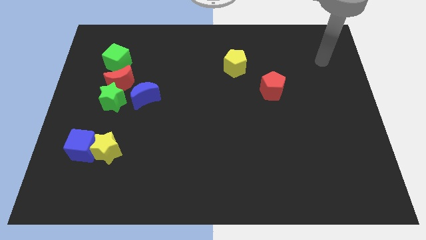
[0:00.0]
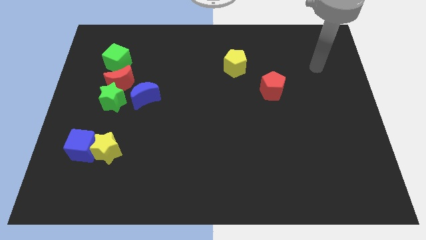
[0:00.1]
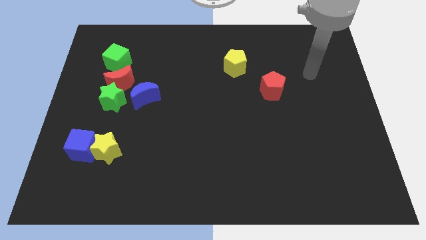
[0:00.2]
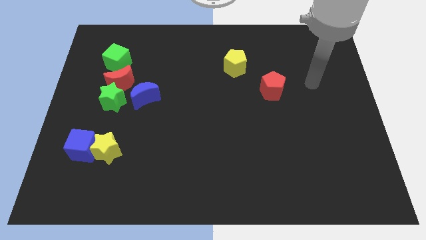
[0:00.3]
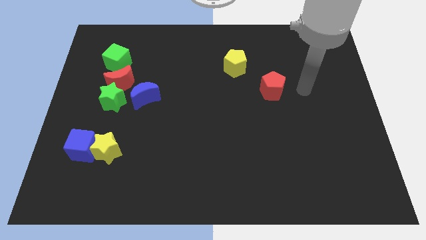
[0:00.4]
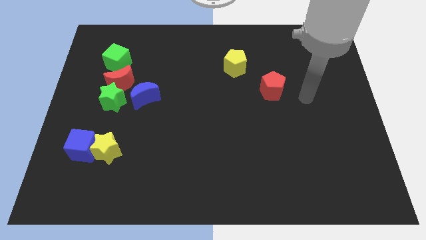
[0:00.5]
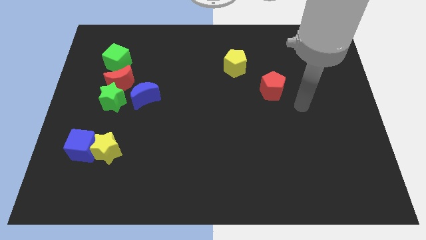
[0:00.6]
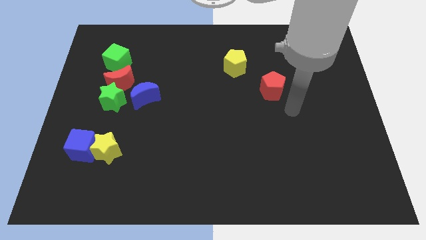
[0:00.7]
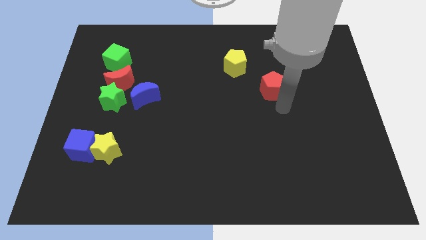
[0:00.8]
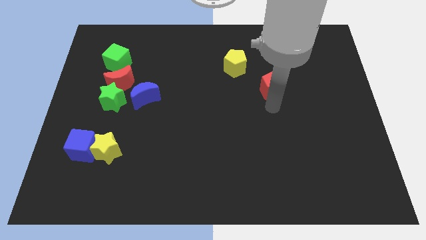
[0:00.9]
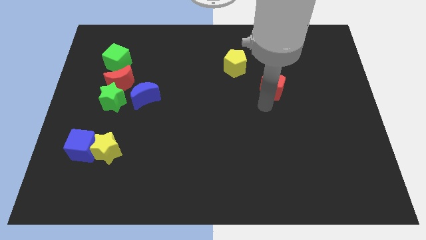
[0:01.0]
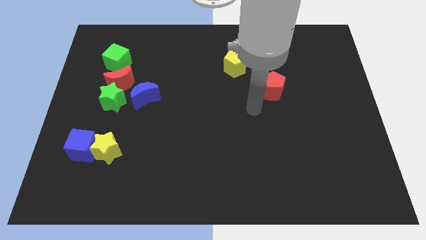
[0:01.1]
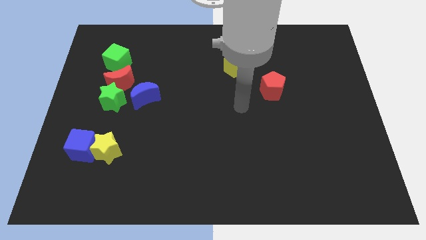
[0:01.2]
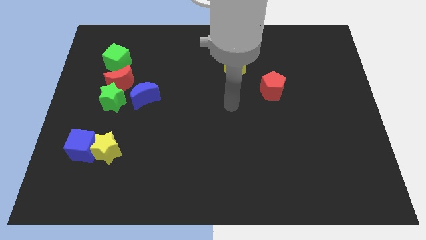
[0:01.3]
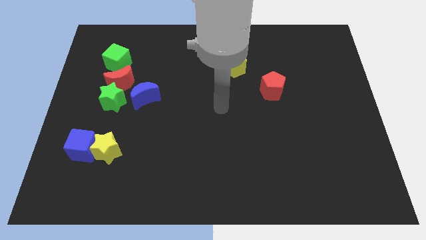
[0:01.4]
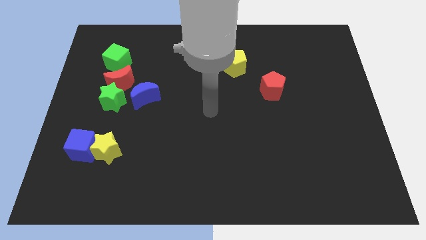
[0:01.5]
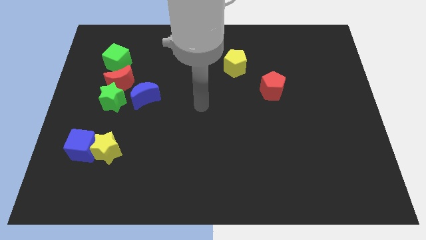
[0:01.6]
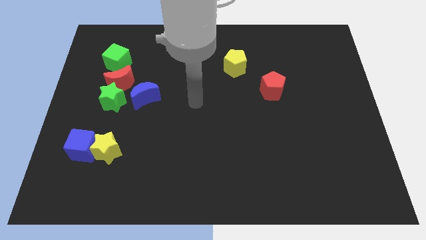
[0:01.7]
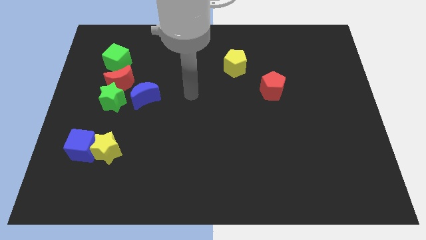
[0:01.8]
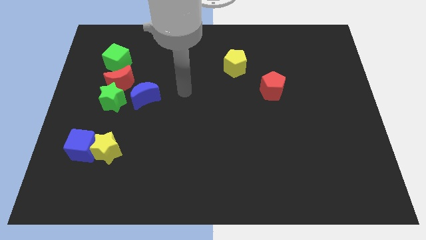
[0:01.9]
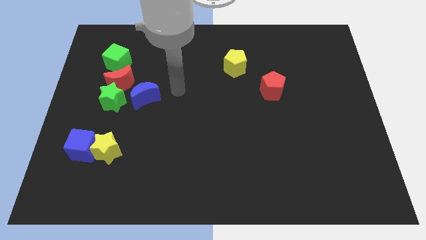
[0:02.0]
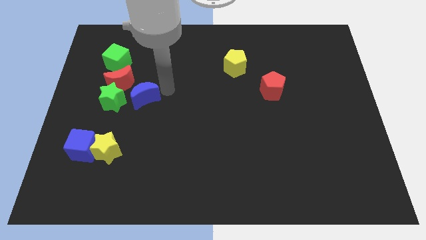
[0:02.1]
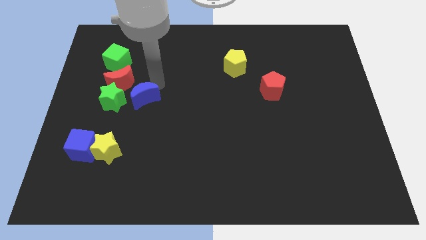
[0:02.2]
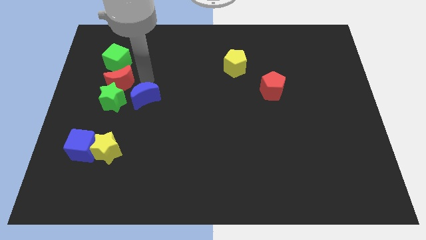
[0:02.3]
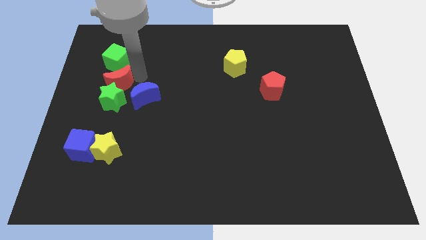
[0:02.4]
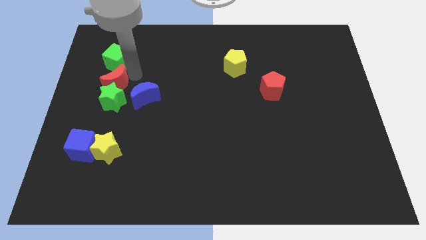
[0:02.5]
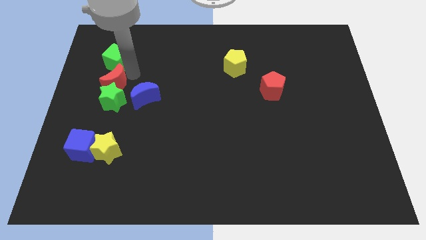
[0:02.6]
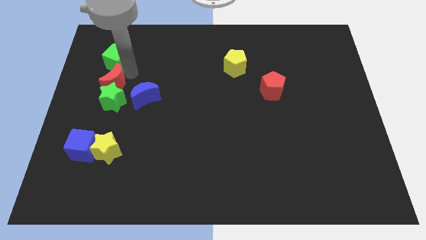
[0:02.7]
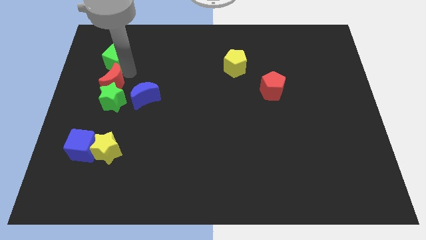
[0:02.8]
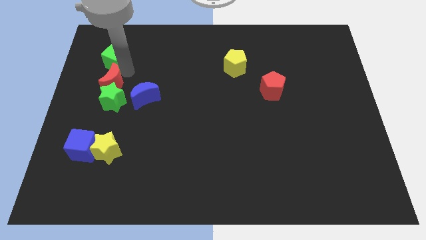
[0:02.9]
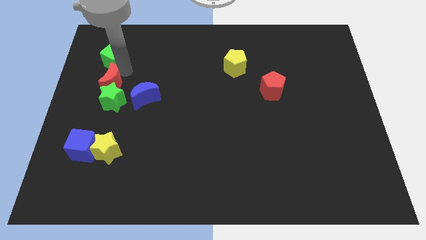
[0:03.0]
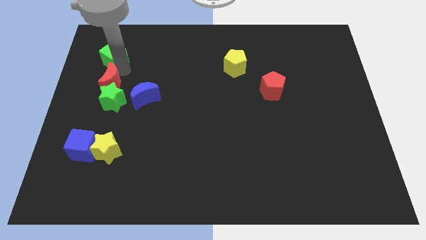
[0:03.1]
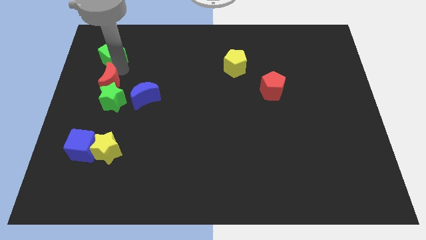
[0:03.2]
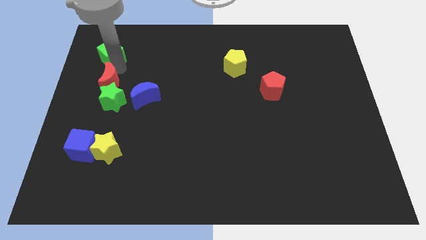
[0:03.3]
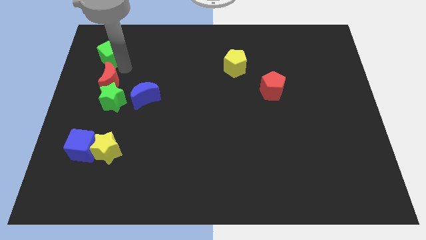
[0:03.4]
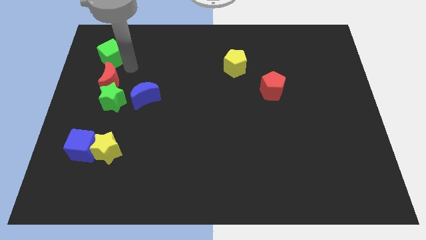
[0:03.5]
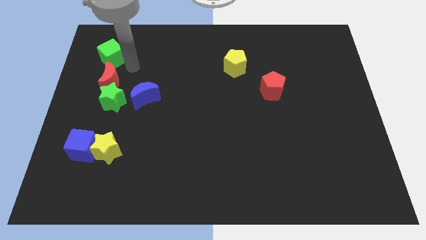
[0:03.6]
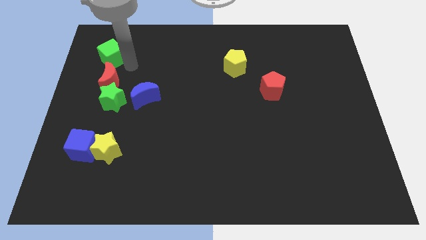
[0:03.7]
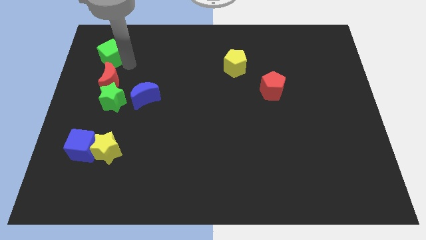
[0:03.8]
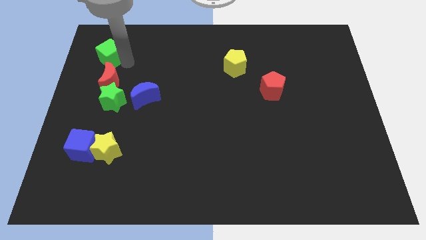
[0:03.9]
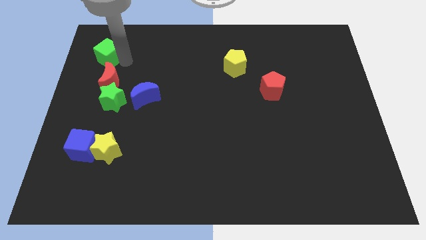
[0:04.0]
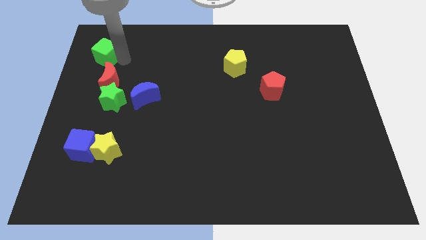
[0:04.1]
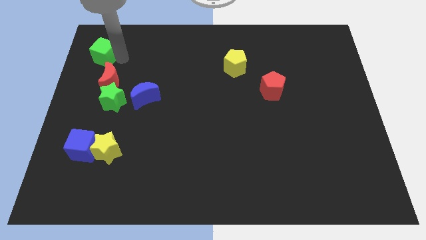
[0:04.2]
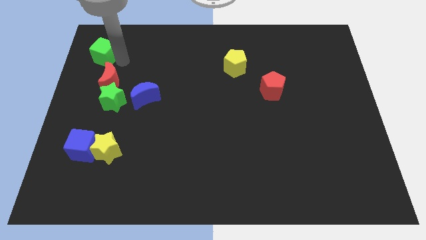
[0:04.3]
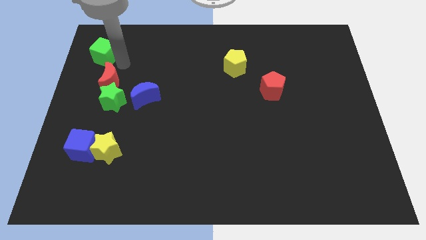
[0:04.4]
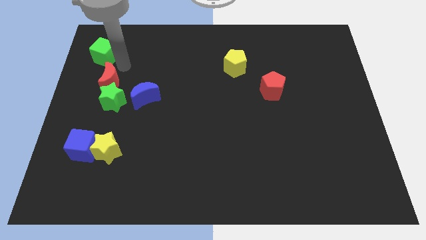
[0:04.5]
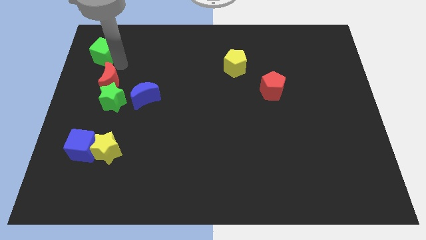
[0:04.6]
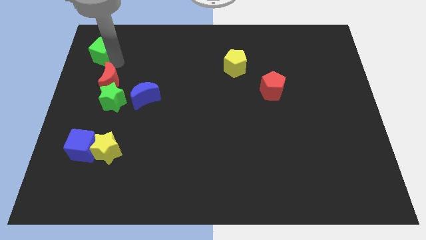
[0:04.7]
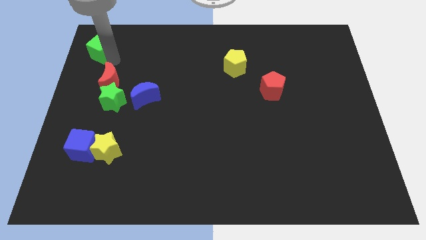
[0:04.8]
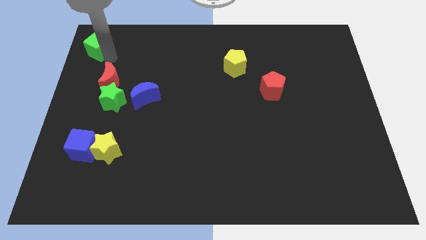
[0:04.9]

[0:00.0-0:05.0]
move the green cube to the top left corner

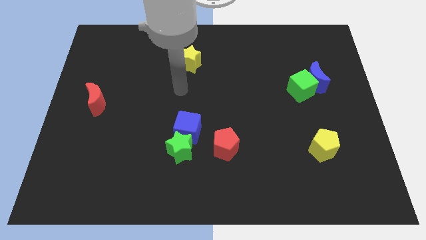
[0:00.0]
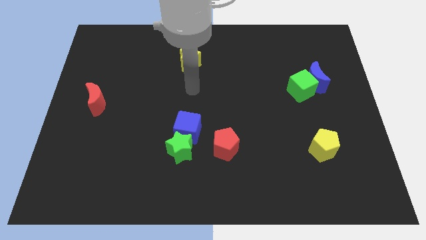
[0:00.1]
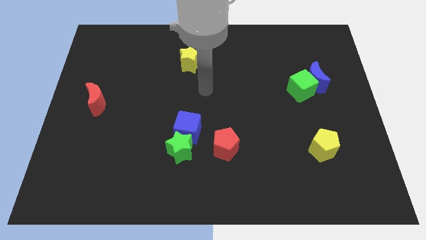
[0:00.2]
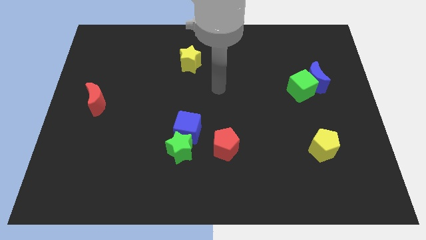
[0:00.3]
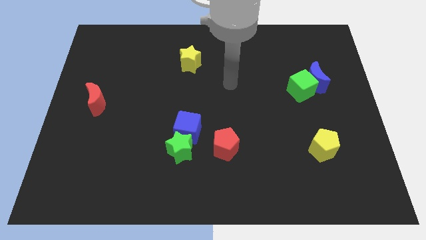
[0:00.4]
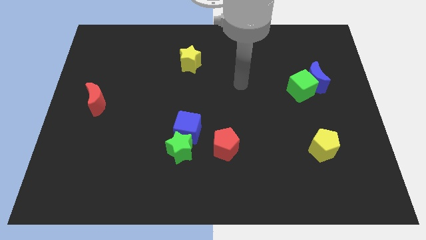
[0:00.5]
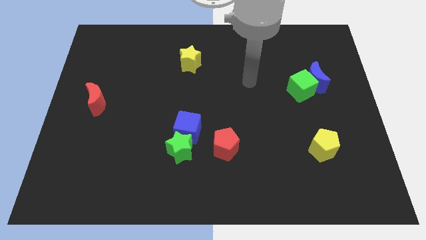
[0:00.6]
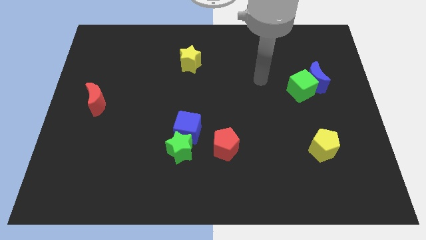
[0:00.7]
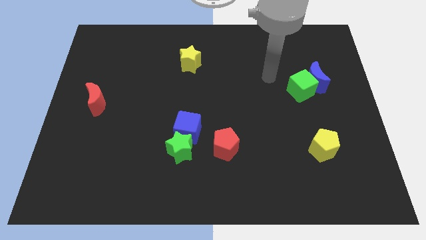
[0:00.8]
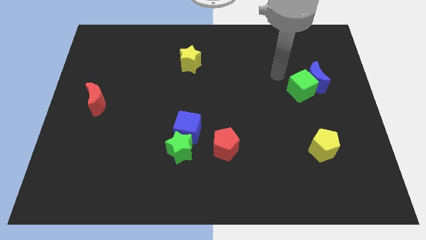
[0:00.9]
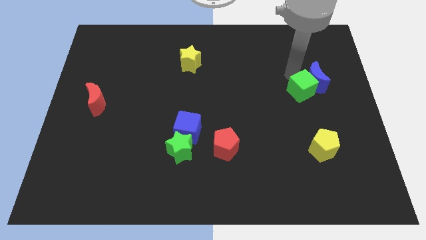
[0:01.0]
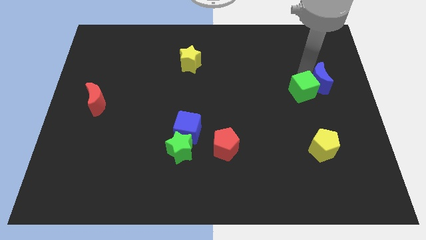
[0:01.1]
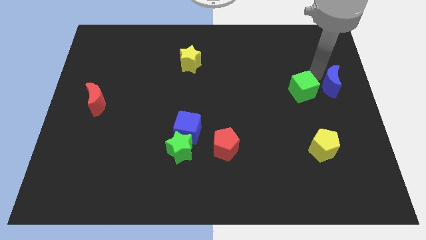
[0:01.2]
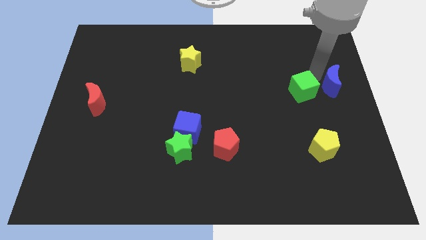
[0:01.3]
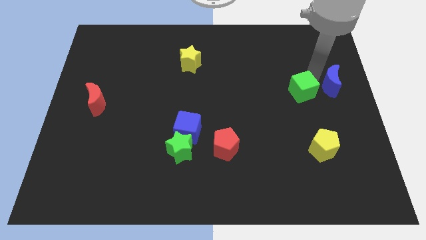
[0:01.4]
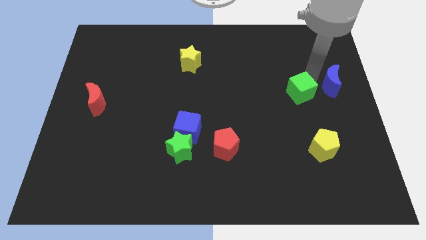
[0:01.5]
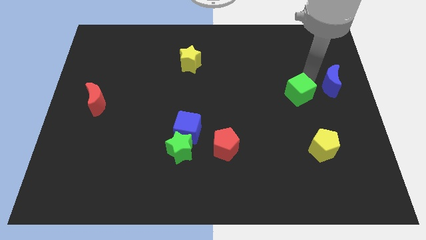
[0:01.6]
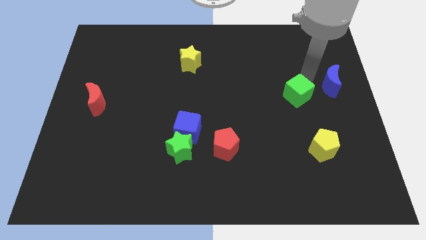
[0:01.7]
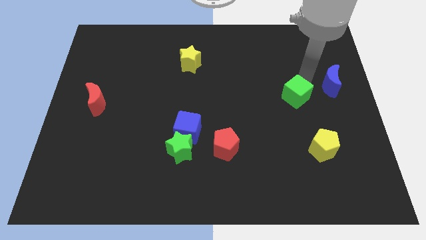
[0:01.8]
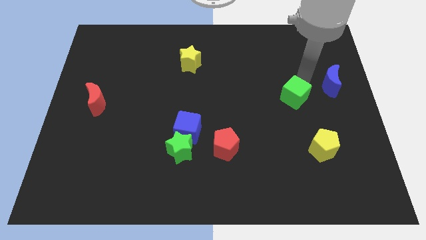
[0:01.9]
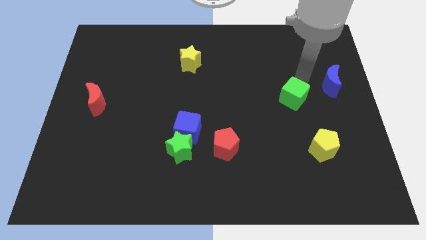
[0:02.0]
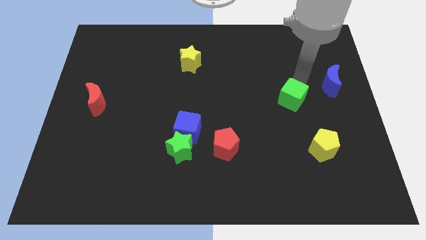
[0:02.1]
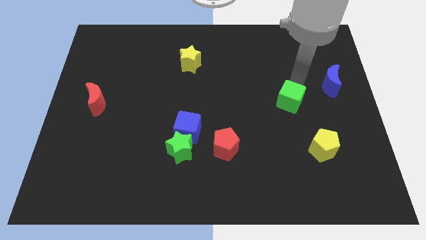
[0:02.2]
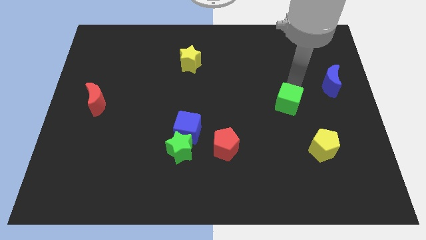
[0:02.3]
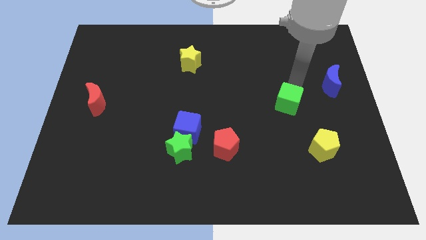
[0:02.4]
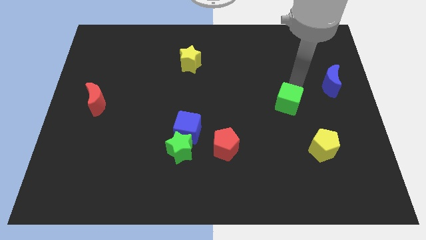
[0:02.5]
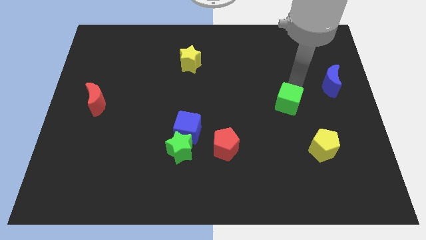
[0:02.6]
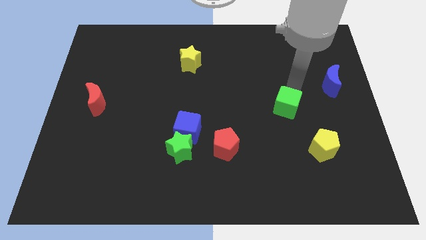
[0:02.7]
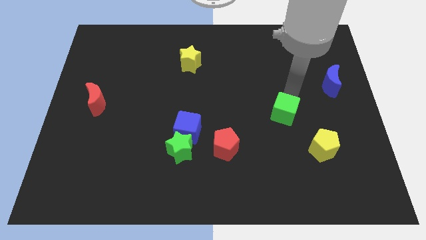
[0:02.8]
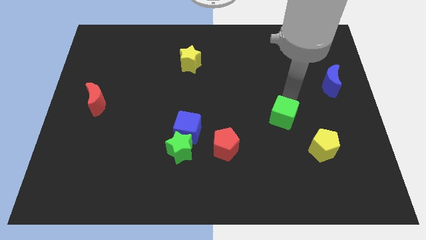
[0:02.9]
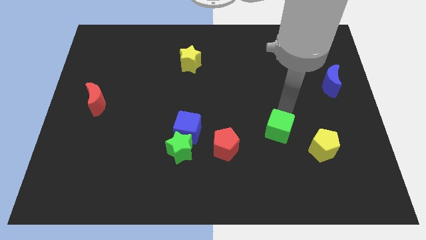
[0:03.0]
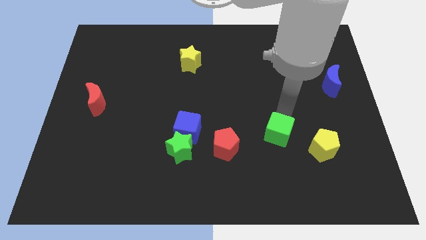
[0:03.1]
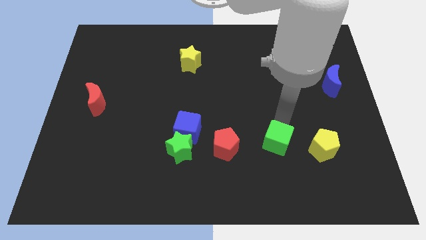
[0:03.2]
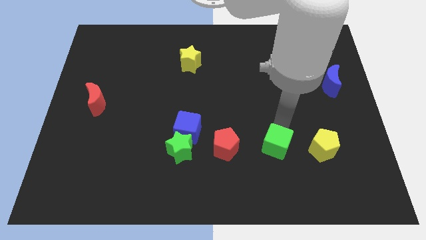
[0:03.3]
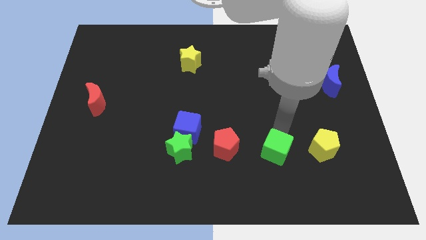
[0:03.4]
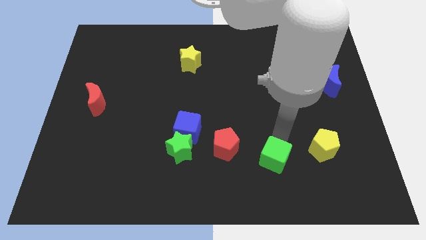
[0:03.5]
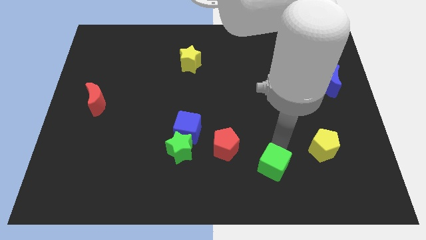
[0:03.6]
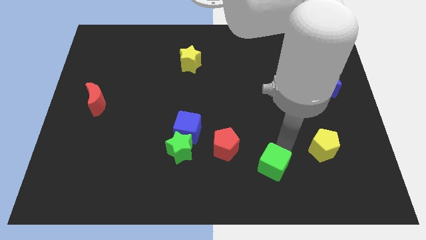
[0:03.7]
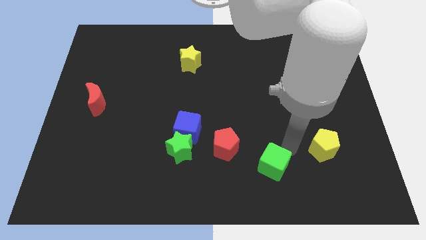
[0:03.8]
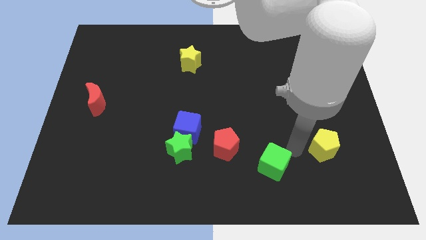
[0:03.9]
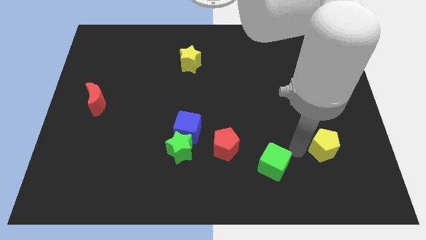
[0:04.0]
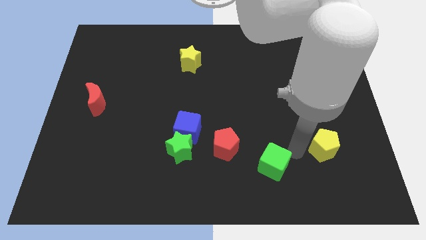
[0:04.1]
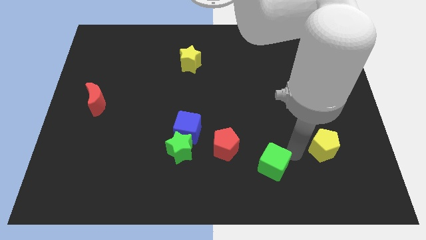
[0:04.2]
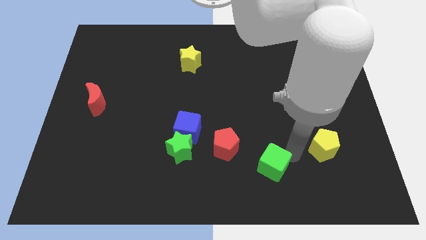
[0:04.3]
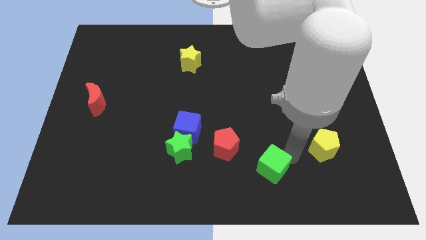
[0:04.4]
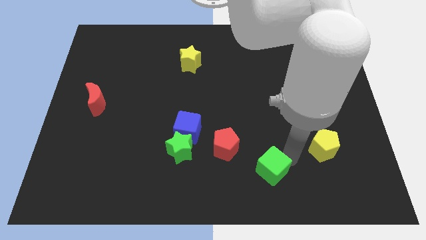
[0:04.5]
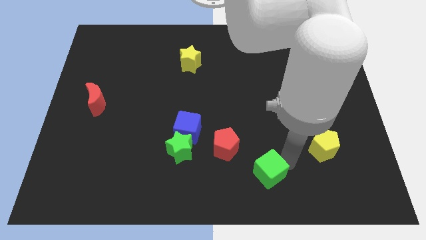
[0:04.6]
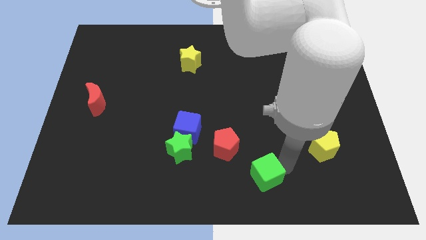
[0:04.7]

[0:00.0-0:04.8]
slide the green cube to the bottom side
